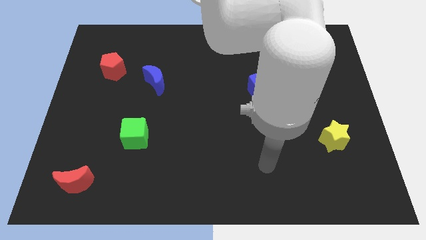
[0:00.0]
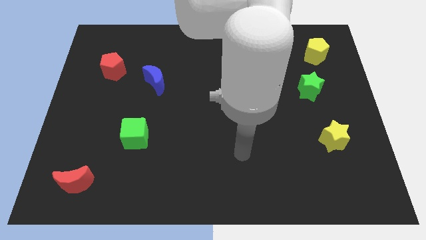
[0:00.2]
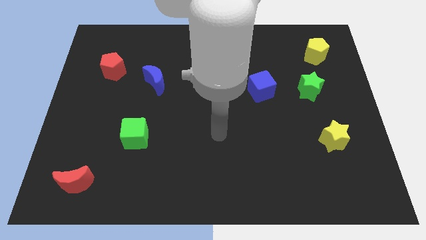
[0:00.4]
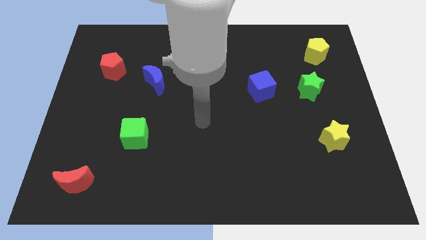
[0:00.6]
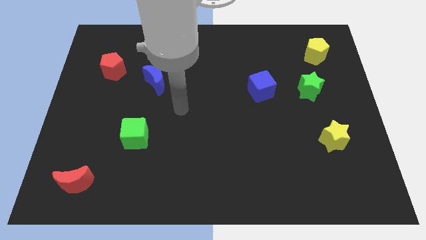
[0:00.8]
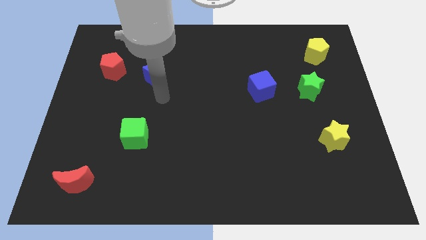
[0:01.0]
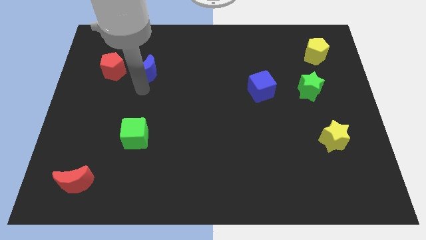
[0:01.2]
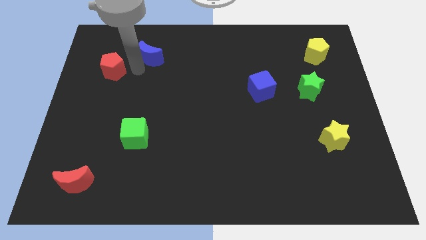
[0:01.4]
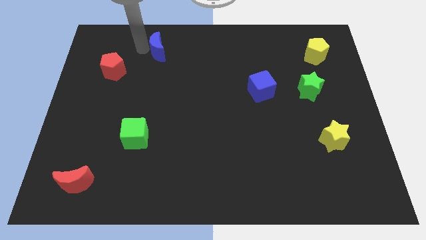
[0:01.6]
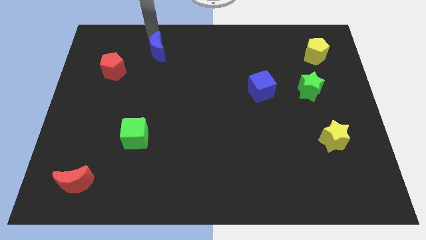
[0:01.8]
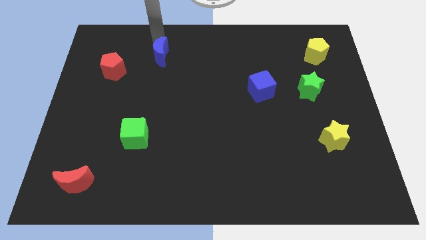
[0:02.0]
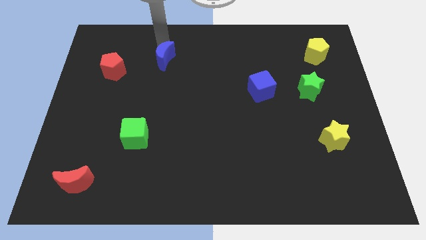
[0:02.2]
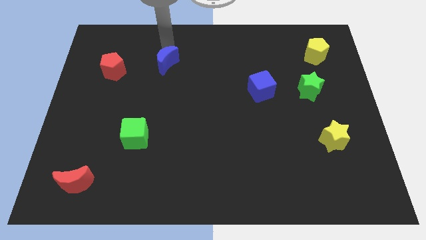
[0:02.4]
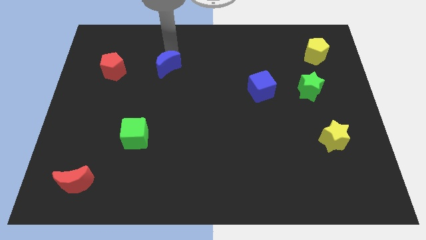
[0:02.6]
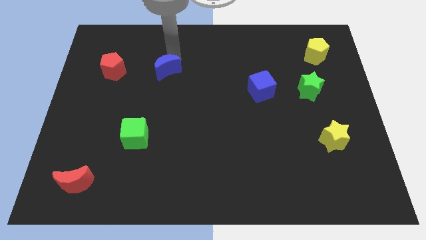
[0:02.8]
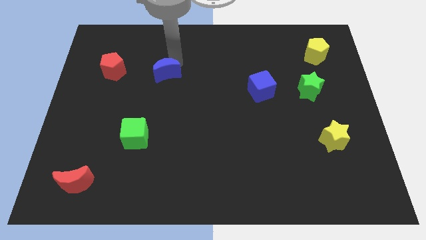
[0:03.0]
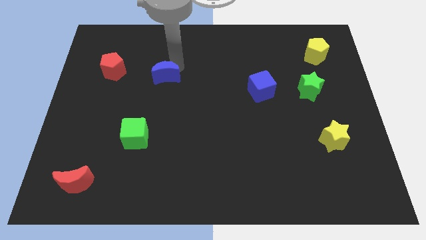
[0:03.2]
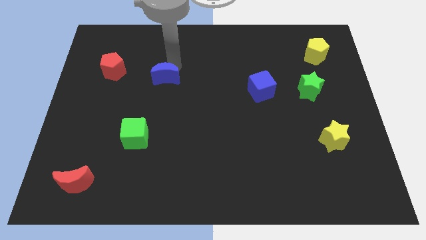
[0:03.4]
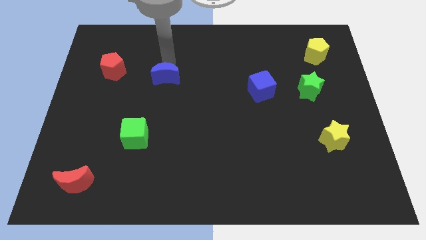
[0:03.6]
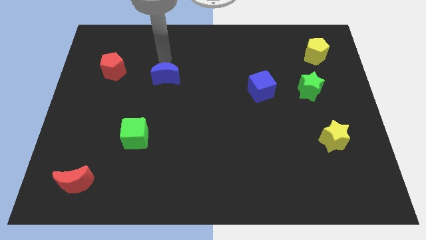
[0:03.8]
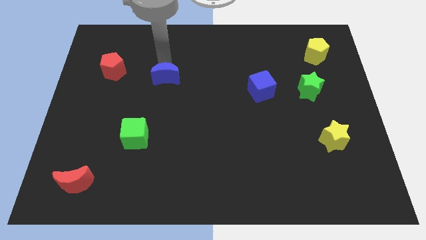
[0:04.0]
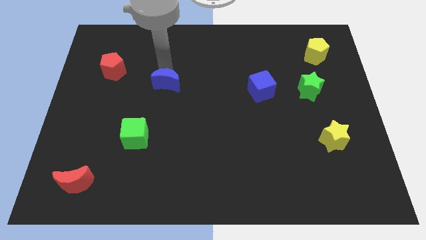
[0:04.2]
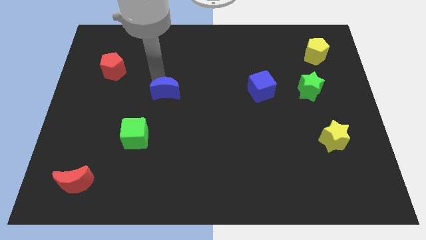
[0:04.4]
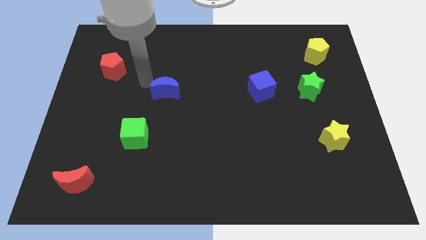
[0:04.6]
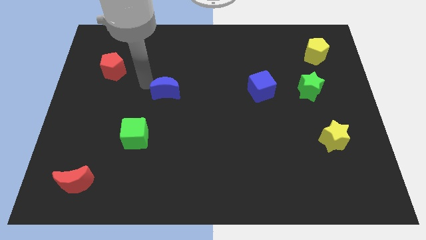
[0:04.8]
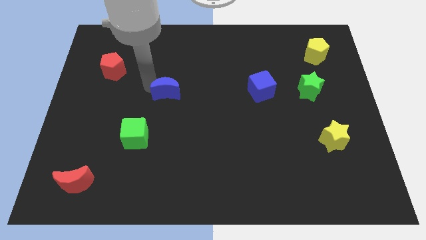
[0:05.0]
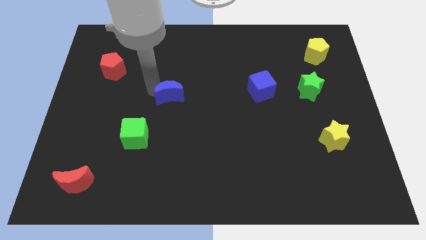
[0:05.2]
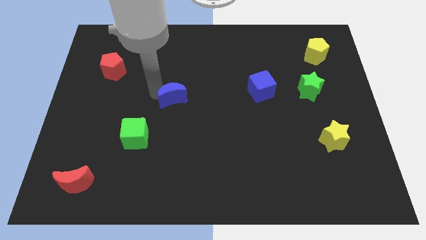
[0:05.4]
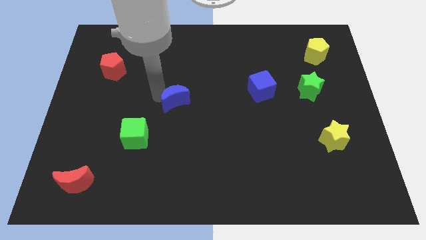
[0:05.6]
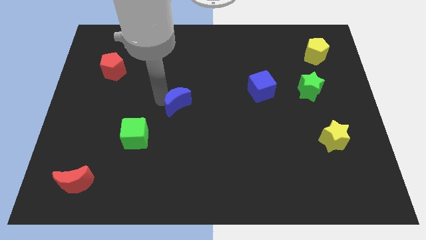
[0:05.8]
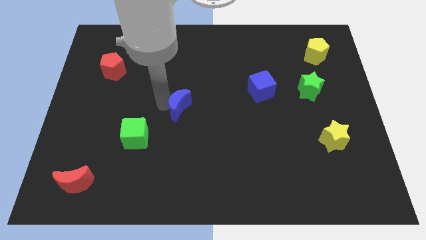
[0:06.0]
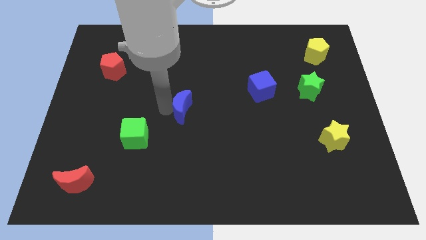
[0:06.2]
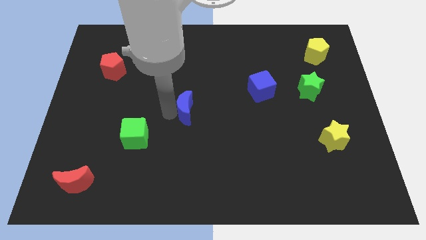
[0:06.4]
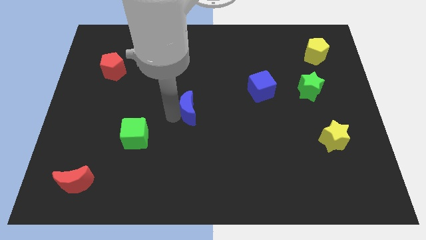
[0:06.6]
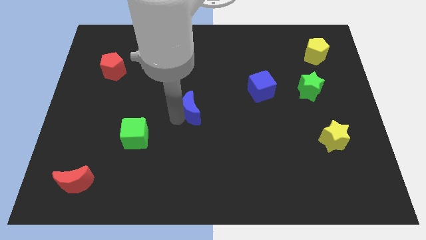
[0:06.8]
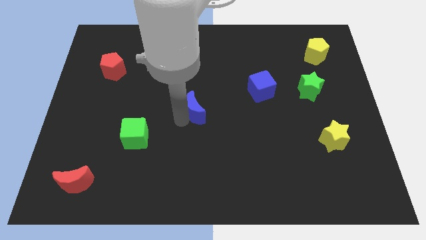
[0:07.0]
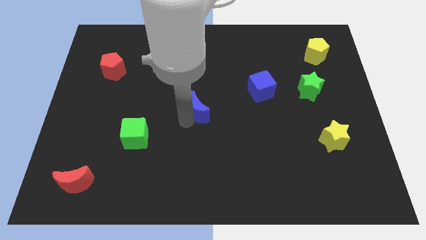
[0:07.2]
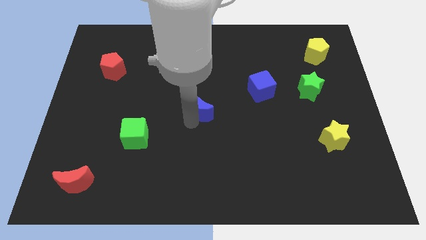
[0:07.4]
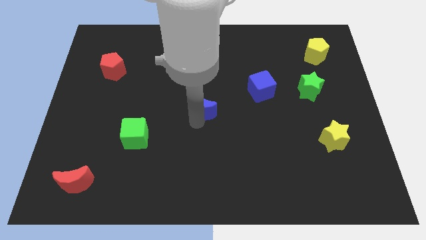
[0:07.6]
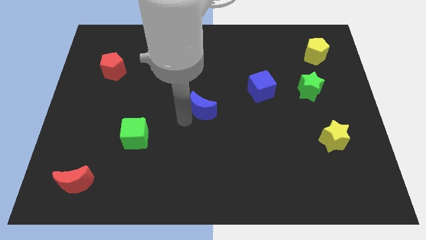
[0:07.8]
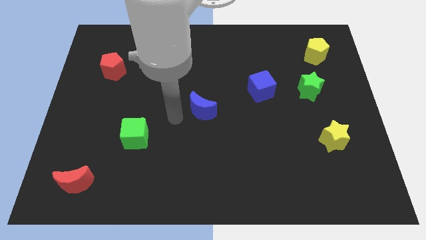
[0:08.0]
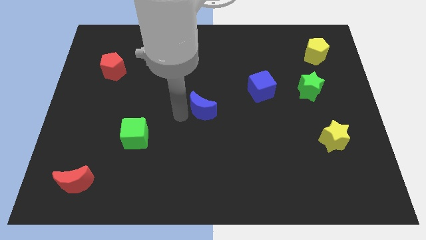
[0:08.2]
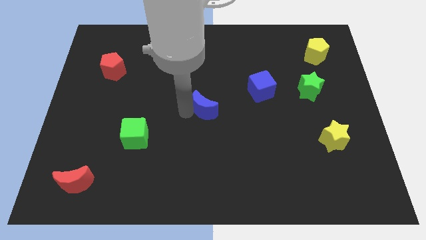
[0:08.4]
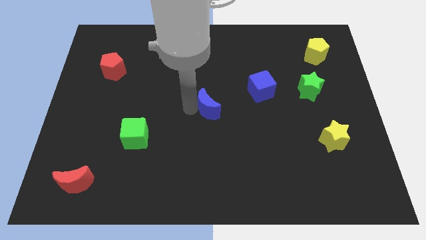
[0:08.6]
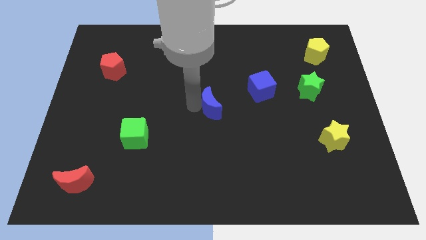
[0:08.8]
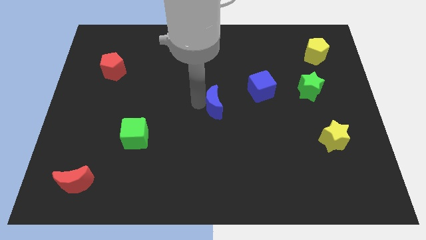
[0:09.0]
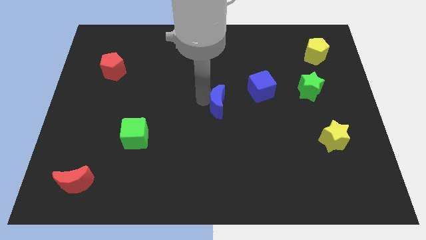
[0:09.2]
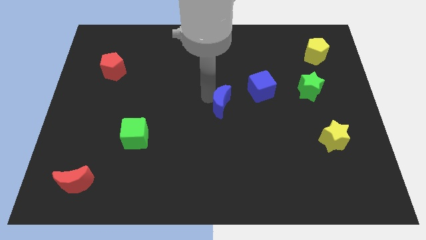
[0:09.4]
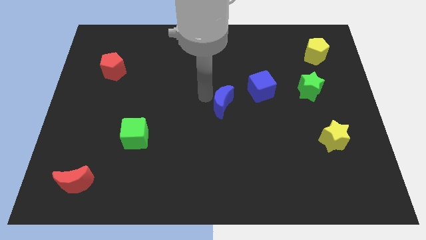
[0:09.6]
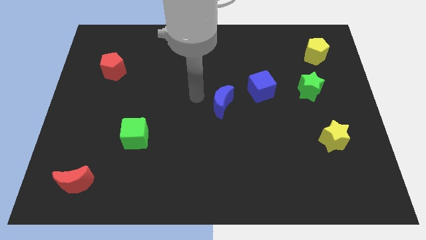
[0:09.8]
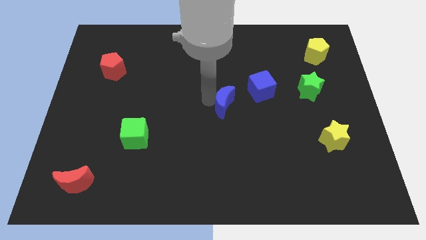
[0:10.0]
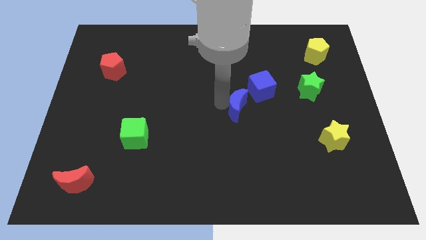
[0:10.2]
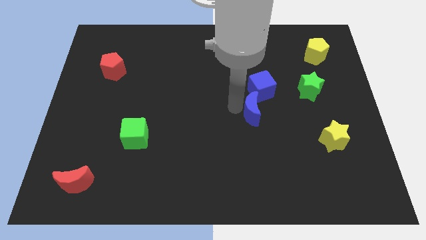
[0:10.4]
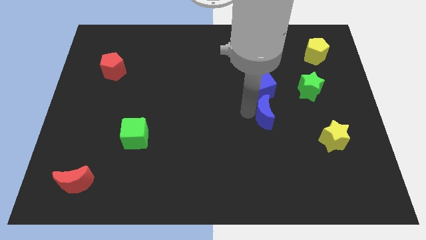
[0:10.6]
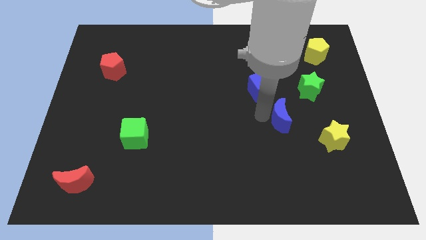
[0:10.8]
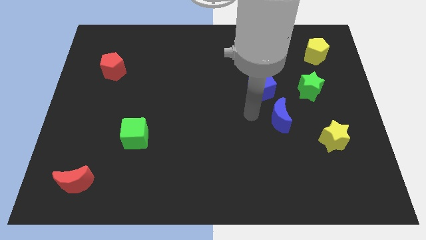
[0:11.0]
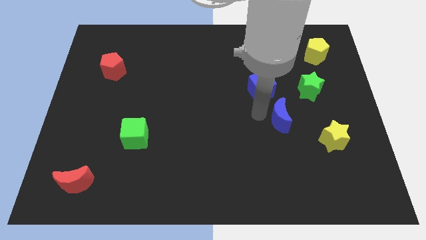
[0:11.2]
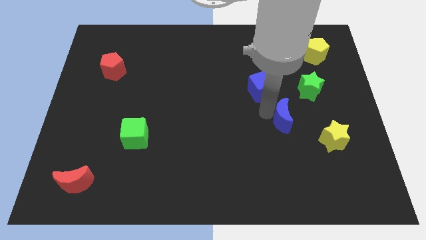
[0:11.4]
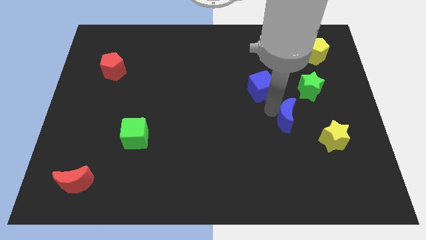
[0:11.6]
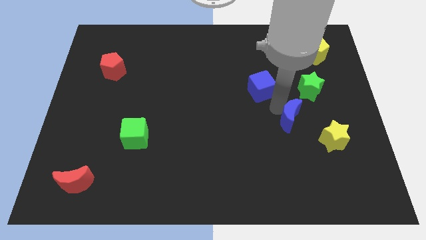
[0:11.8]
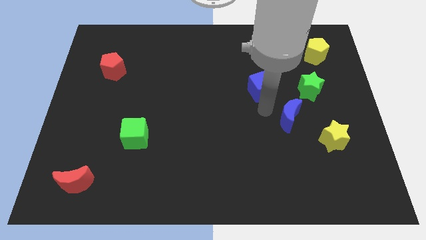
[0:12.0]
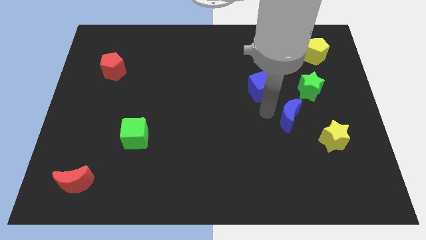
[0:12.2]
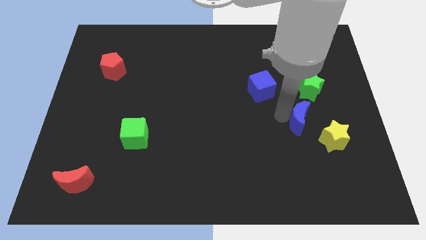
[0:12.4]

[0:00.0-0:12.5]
put the blue moon to the bottom side of the green star

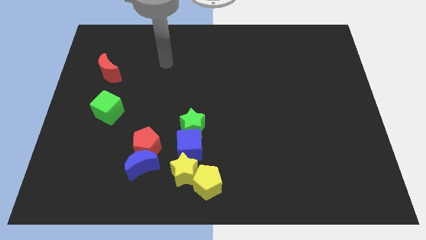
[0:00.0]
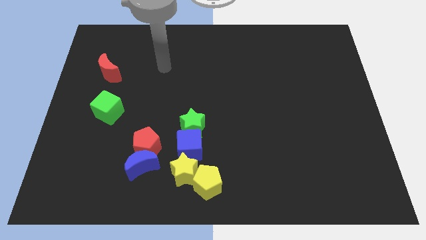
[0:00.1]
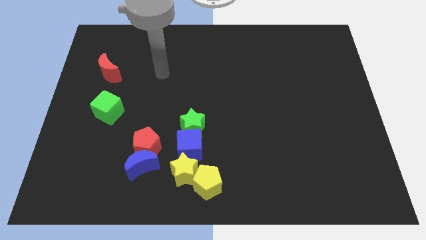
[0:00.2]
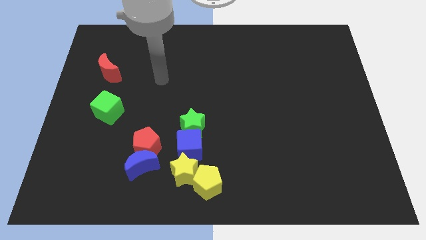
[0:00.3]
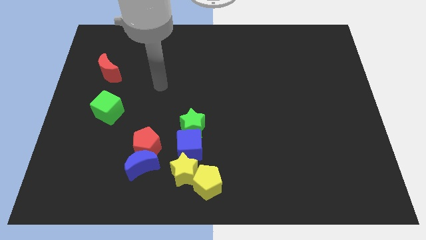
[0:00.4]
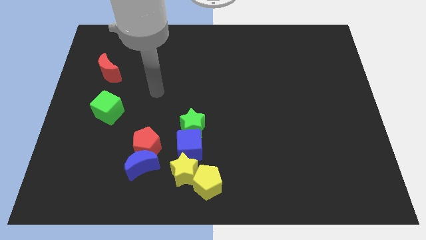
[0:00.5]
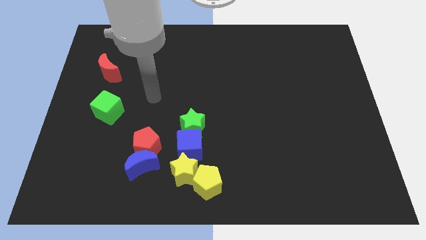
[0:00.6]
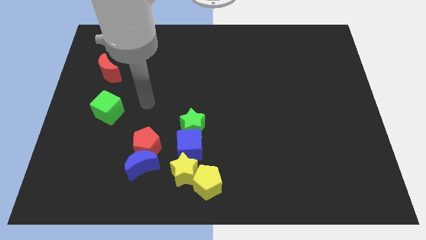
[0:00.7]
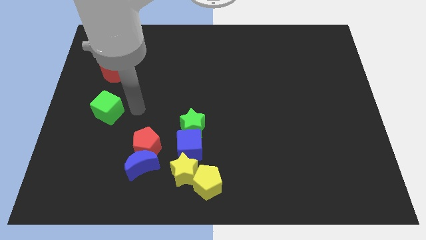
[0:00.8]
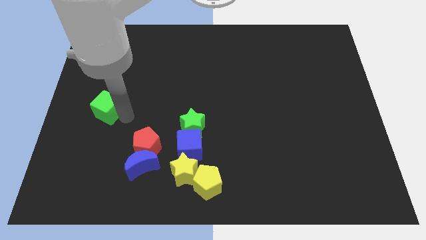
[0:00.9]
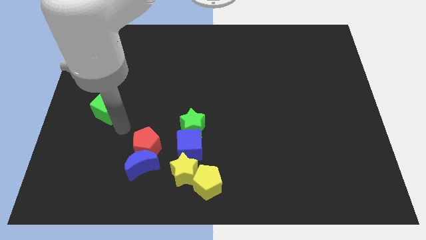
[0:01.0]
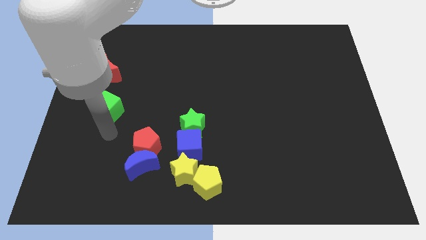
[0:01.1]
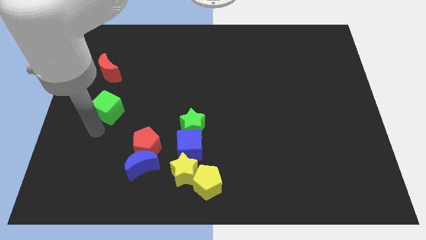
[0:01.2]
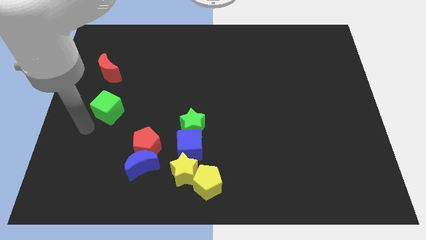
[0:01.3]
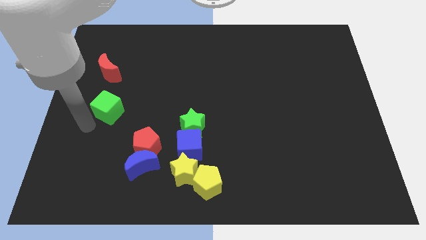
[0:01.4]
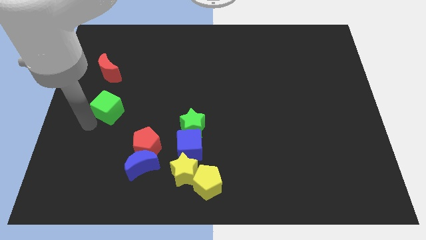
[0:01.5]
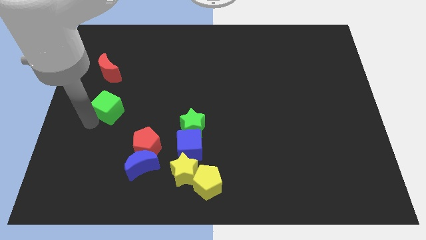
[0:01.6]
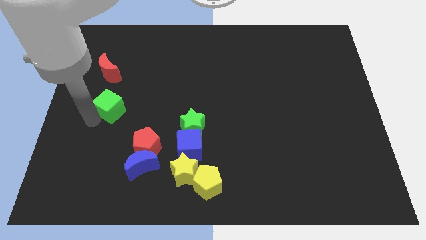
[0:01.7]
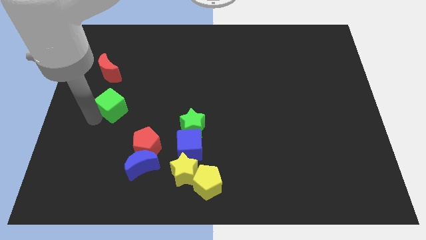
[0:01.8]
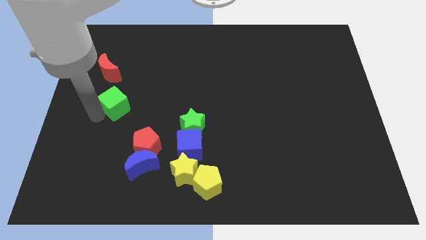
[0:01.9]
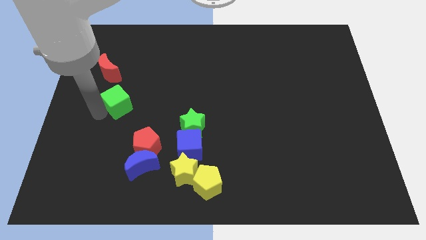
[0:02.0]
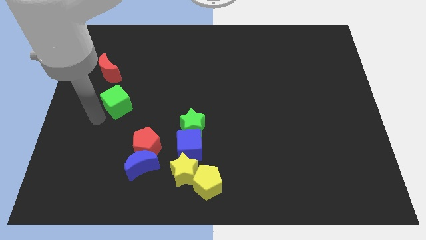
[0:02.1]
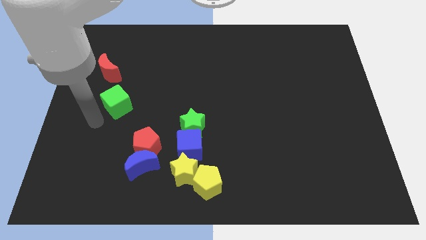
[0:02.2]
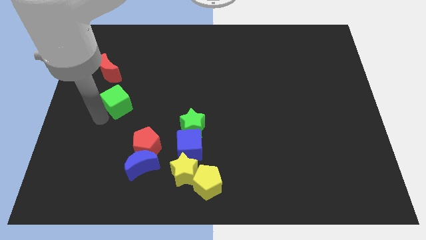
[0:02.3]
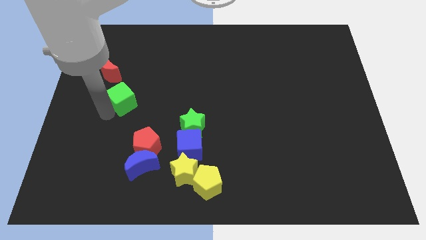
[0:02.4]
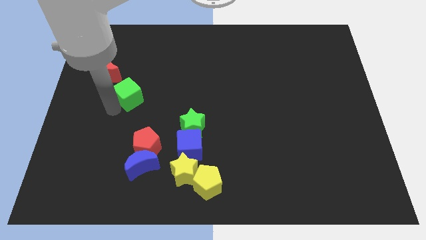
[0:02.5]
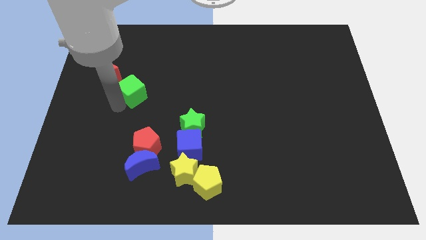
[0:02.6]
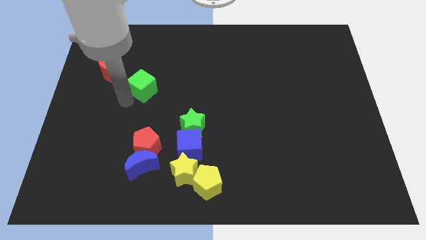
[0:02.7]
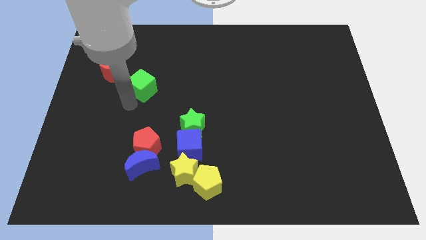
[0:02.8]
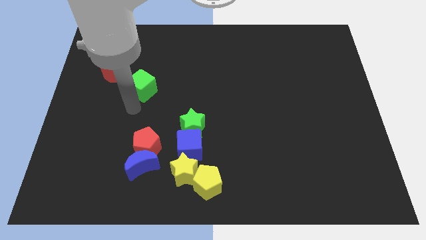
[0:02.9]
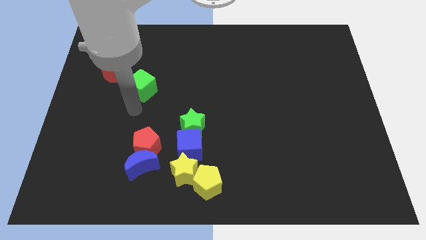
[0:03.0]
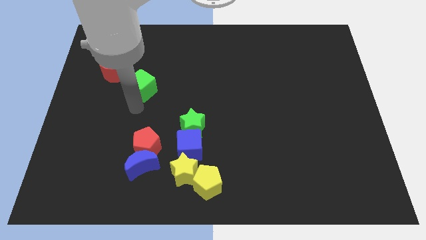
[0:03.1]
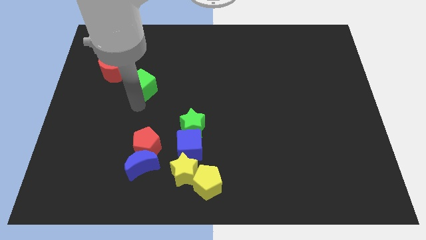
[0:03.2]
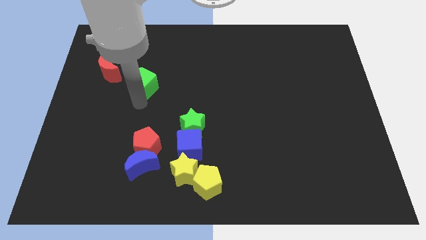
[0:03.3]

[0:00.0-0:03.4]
push the green cube to the right of the red moon
